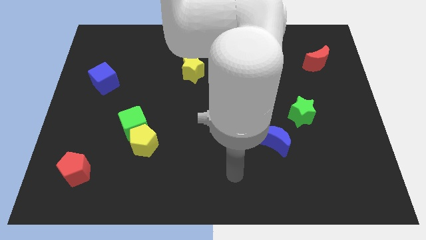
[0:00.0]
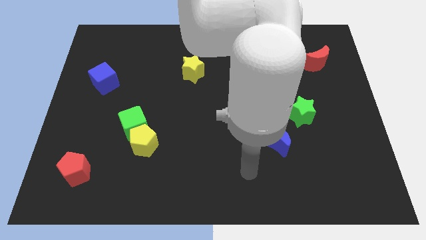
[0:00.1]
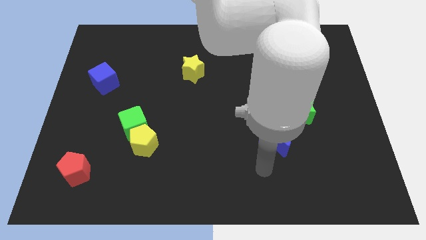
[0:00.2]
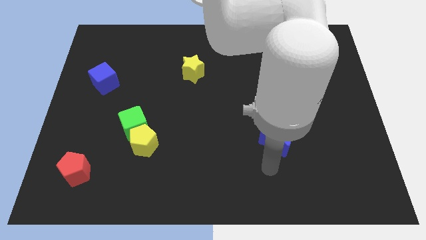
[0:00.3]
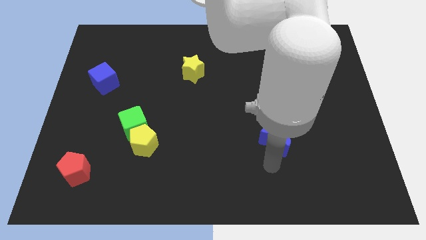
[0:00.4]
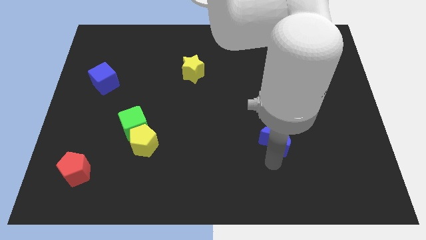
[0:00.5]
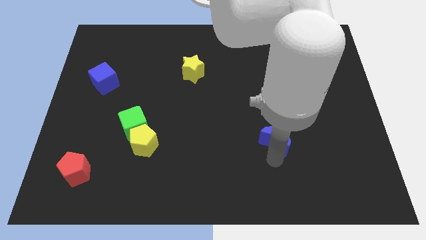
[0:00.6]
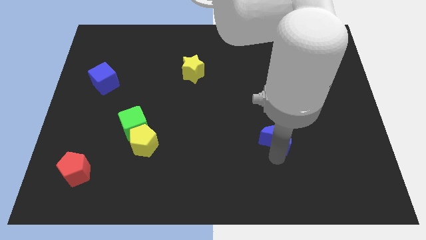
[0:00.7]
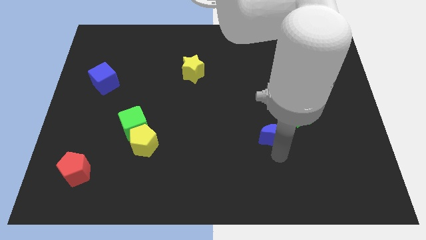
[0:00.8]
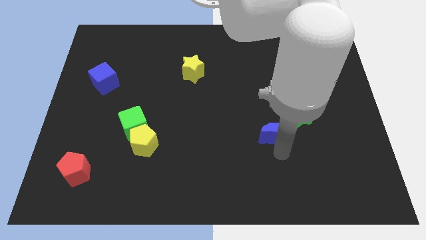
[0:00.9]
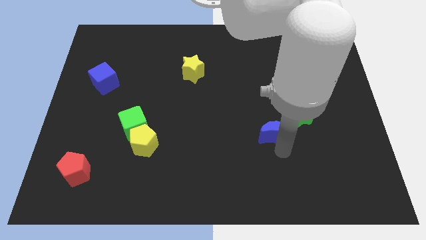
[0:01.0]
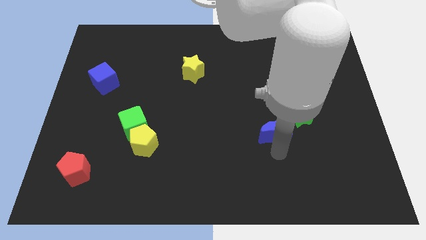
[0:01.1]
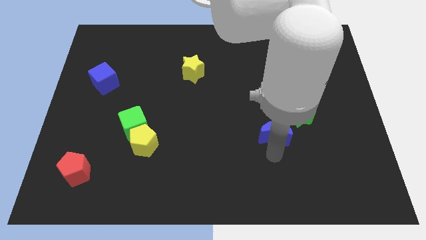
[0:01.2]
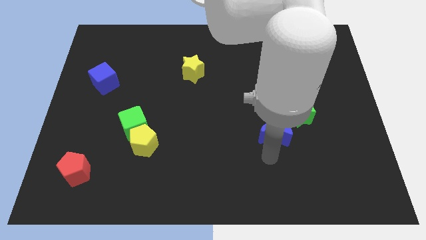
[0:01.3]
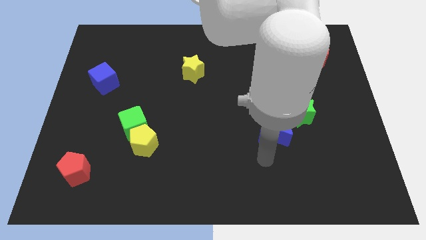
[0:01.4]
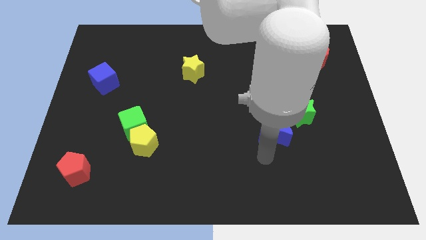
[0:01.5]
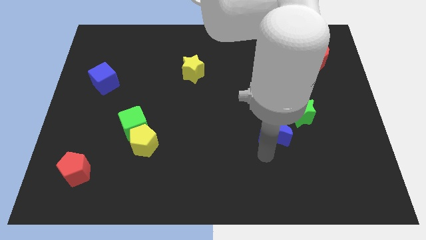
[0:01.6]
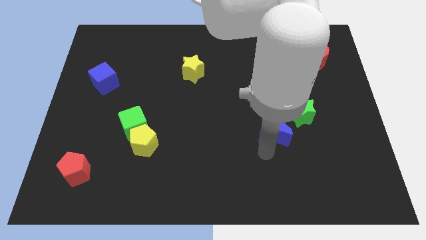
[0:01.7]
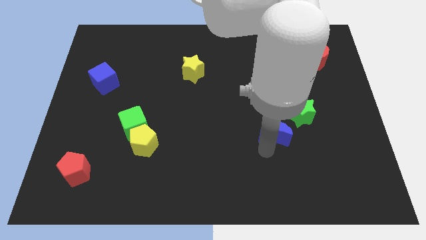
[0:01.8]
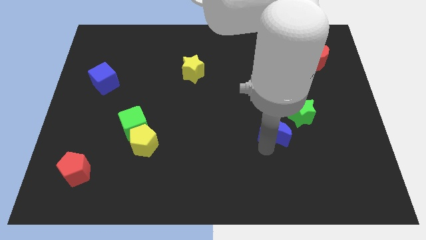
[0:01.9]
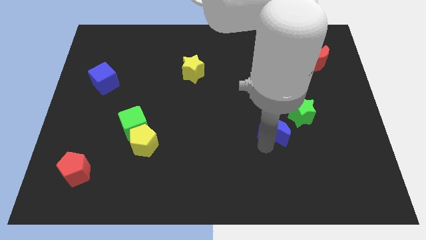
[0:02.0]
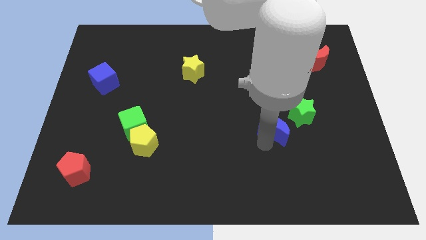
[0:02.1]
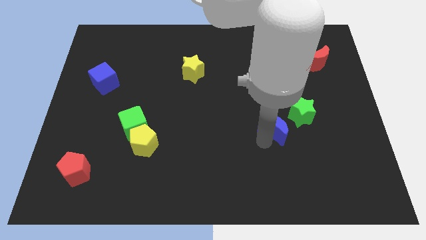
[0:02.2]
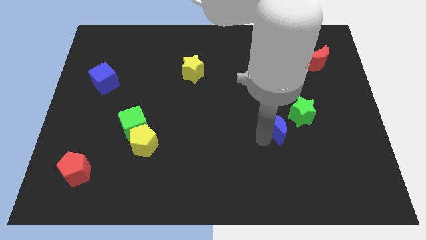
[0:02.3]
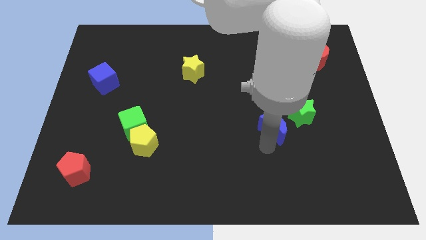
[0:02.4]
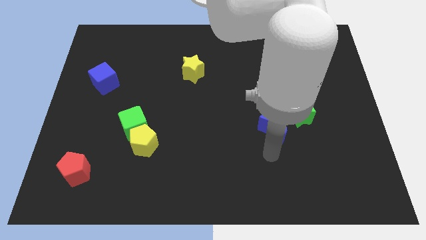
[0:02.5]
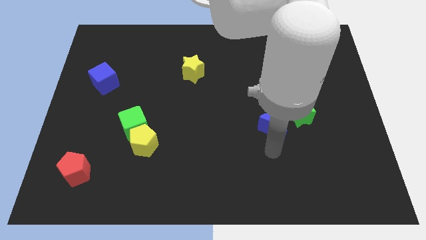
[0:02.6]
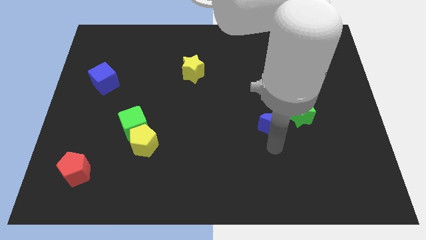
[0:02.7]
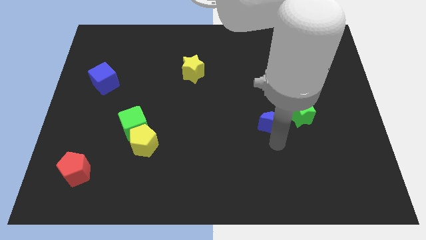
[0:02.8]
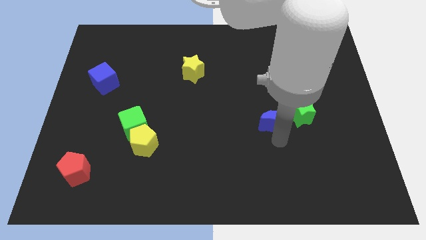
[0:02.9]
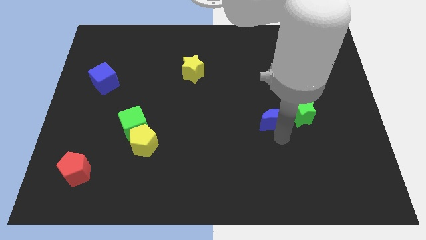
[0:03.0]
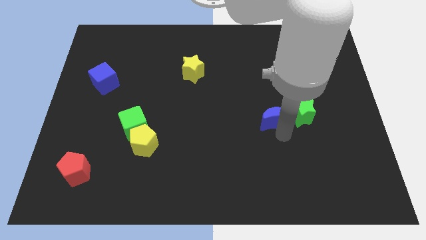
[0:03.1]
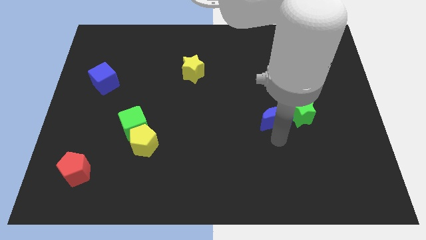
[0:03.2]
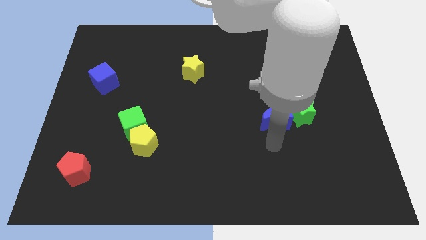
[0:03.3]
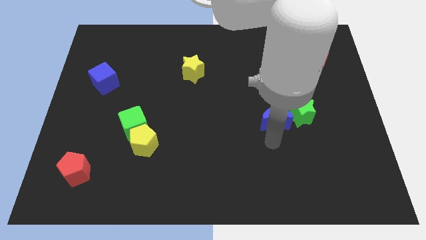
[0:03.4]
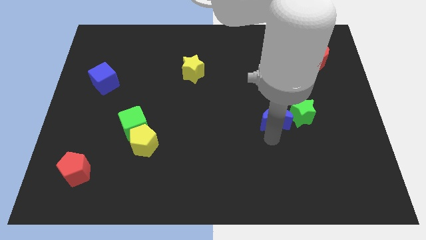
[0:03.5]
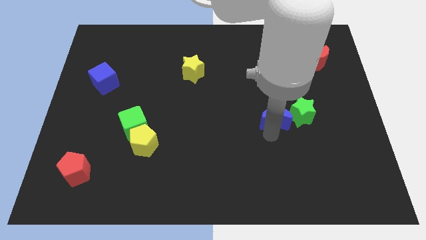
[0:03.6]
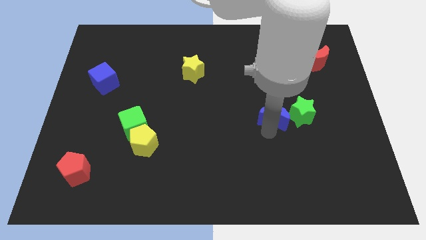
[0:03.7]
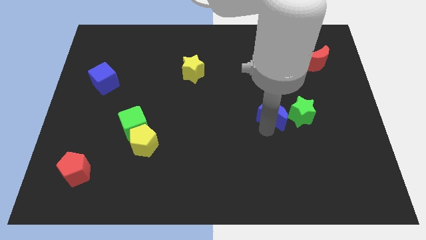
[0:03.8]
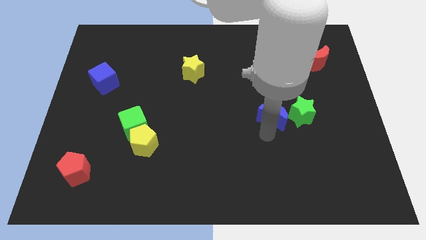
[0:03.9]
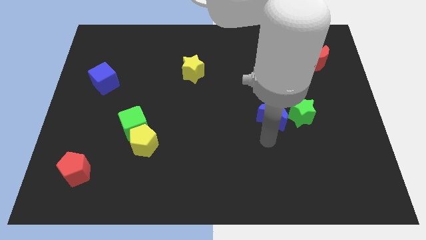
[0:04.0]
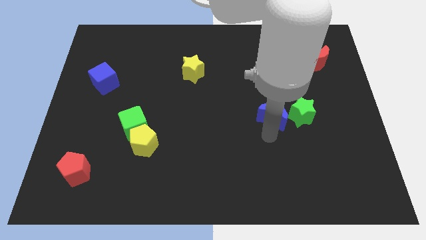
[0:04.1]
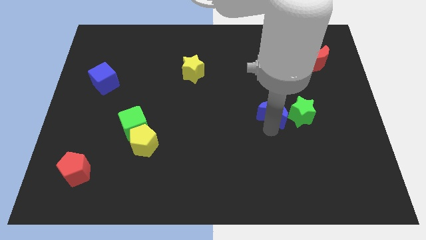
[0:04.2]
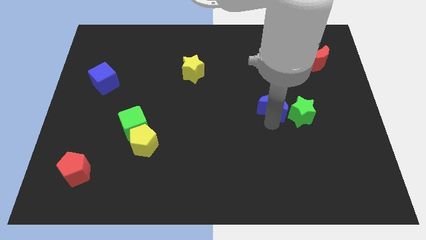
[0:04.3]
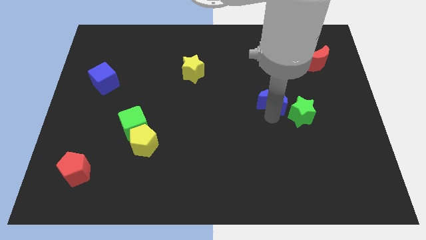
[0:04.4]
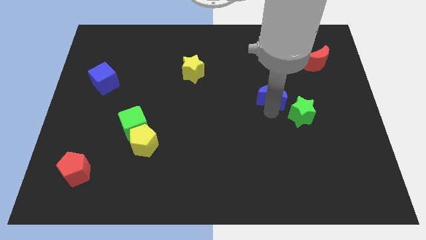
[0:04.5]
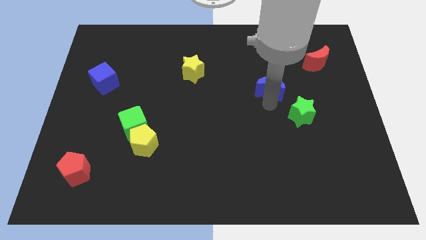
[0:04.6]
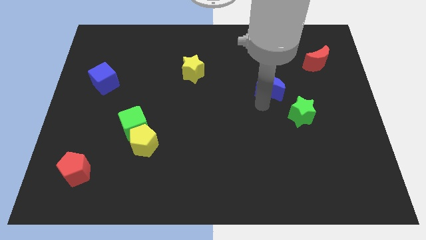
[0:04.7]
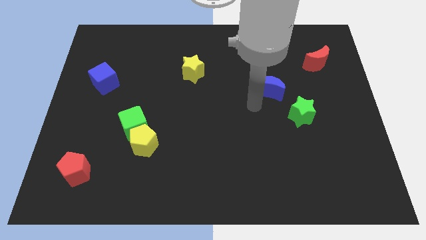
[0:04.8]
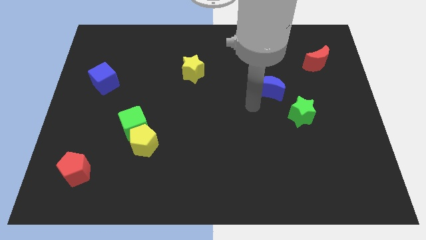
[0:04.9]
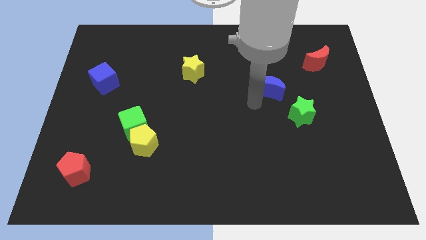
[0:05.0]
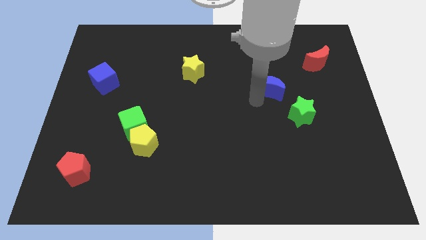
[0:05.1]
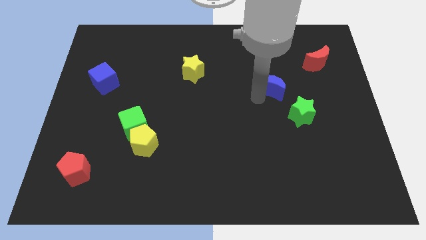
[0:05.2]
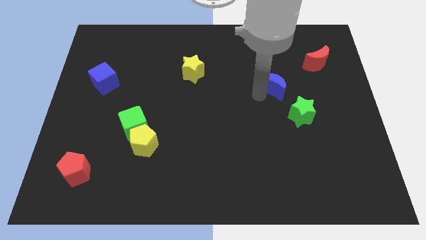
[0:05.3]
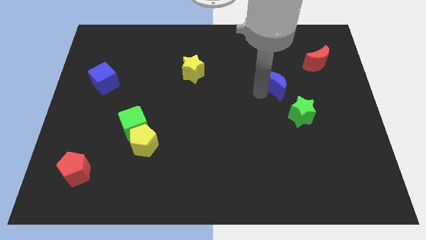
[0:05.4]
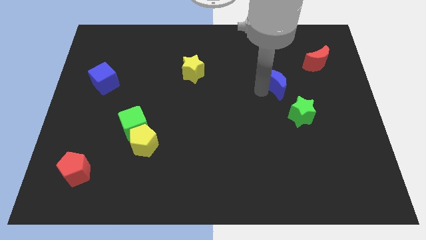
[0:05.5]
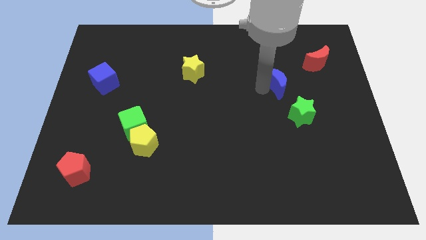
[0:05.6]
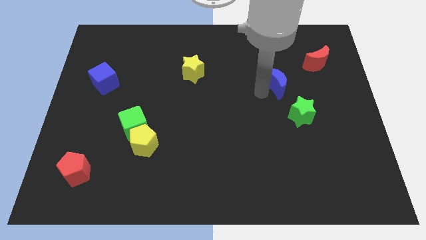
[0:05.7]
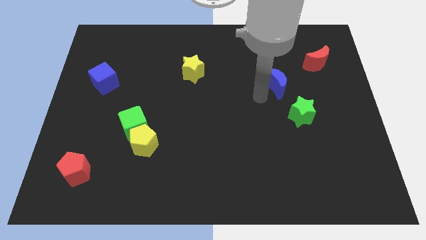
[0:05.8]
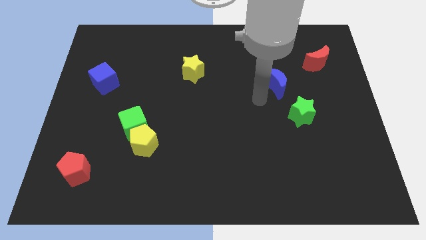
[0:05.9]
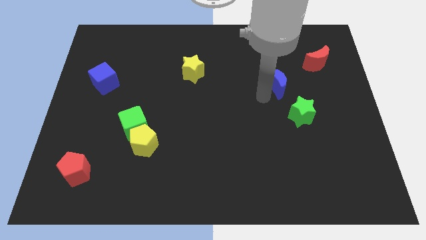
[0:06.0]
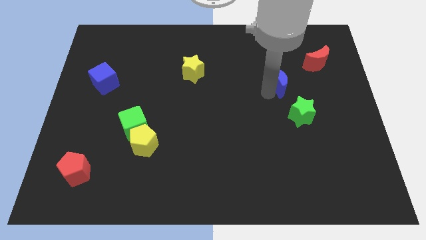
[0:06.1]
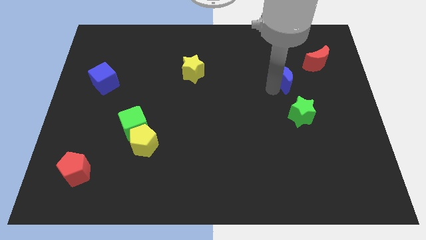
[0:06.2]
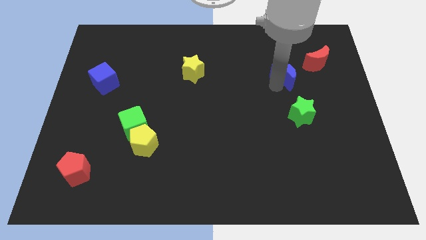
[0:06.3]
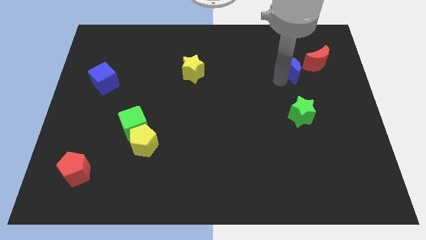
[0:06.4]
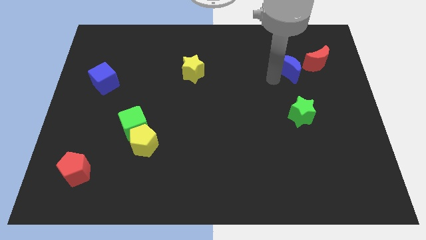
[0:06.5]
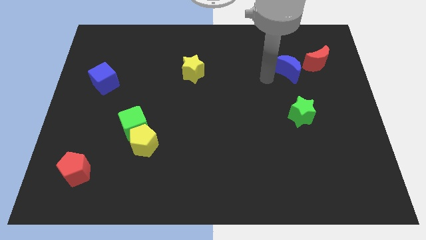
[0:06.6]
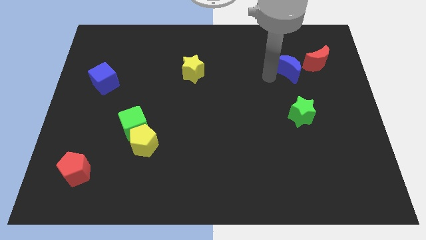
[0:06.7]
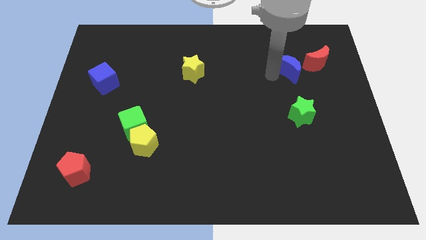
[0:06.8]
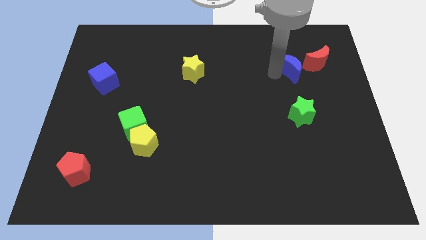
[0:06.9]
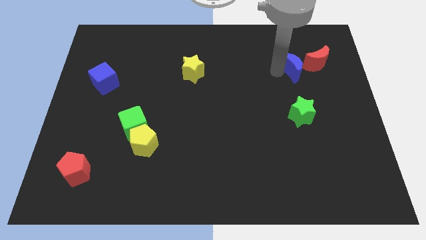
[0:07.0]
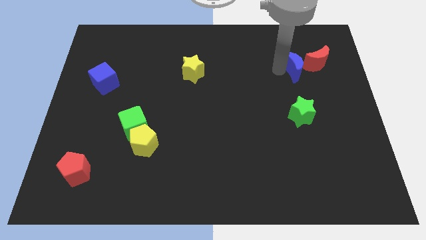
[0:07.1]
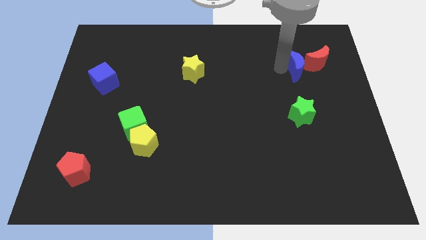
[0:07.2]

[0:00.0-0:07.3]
slide the blue moon next to the red moon
